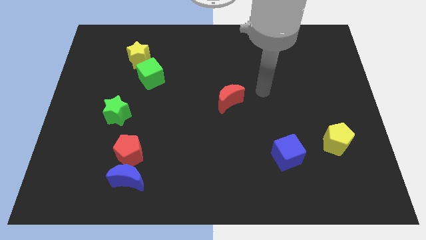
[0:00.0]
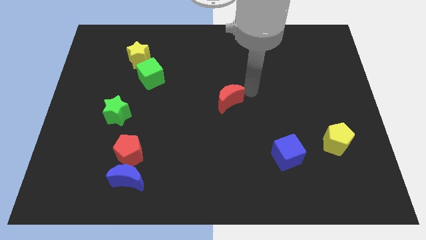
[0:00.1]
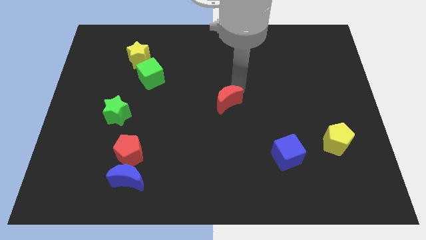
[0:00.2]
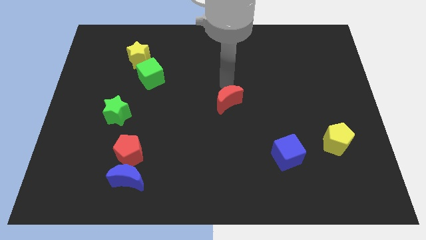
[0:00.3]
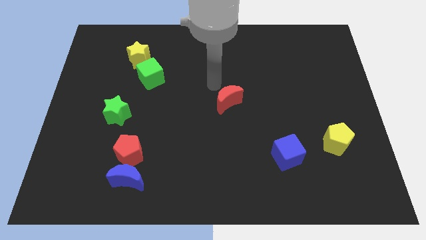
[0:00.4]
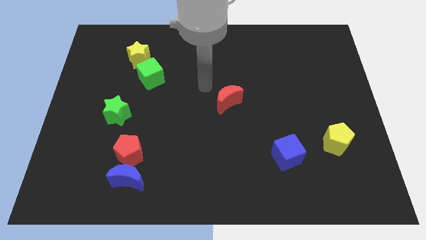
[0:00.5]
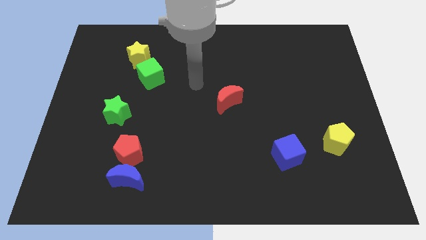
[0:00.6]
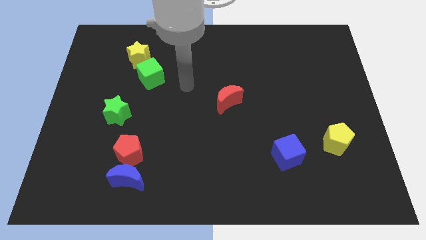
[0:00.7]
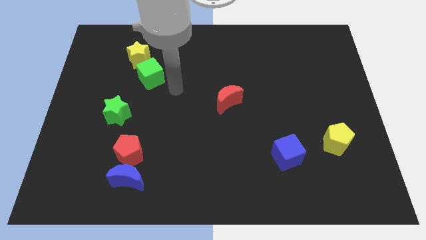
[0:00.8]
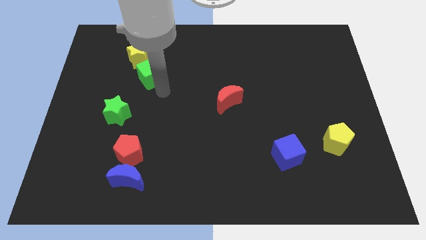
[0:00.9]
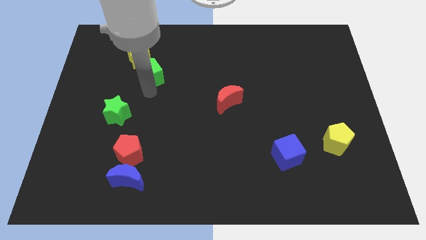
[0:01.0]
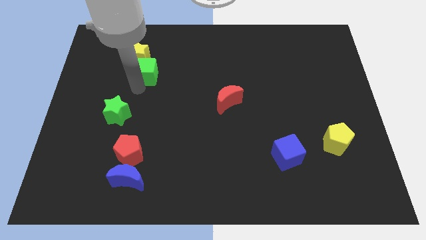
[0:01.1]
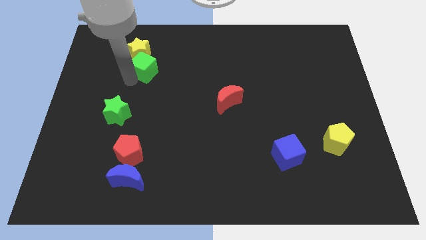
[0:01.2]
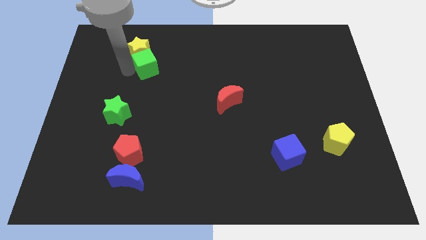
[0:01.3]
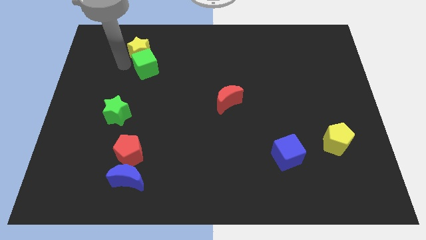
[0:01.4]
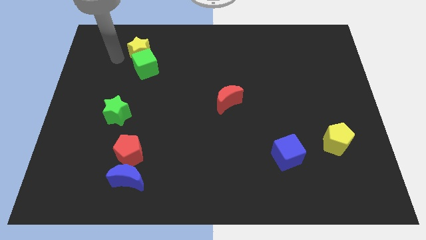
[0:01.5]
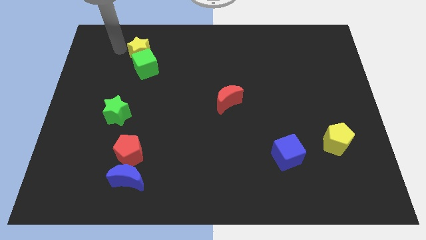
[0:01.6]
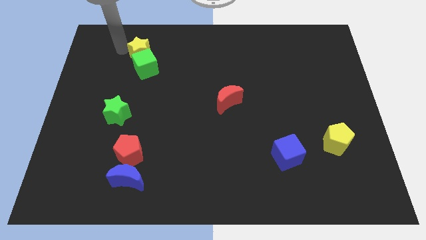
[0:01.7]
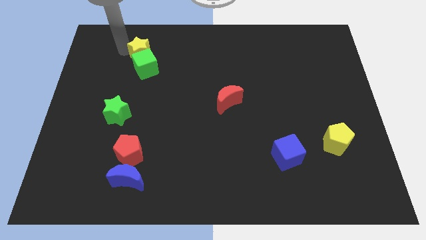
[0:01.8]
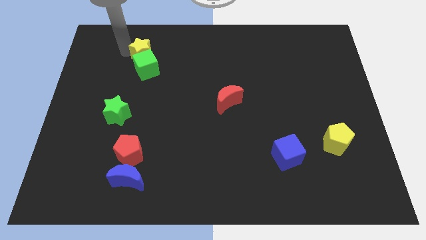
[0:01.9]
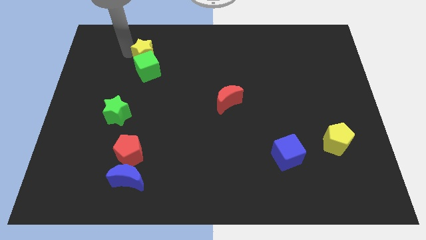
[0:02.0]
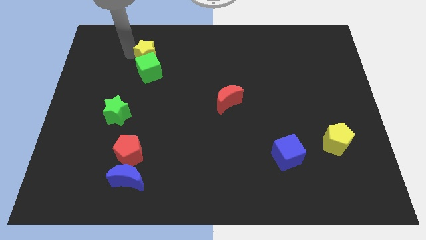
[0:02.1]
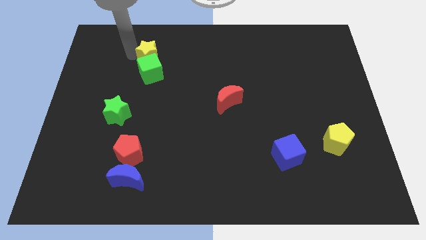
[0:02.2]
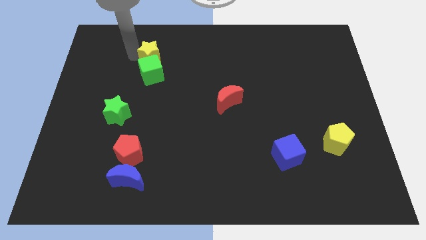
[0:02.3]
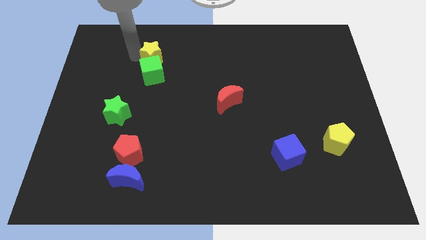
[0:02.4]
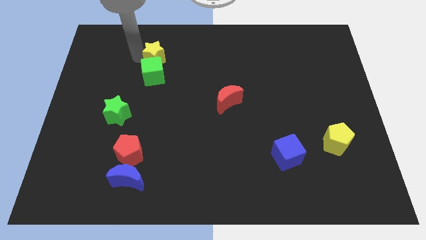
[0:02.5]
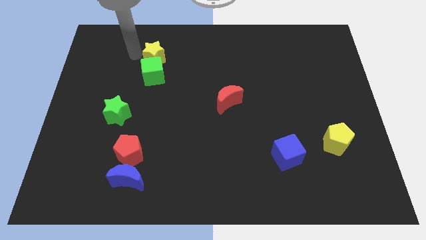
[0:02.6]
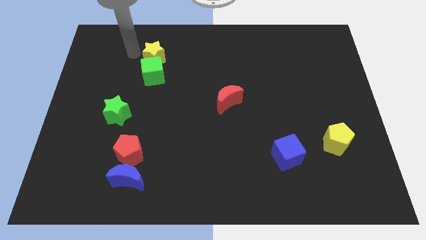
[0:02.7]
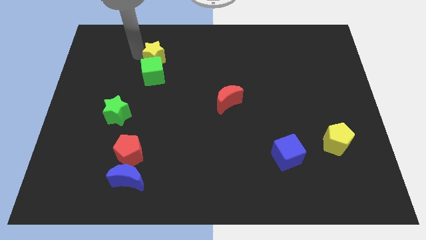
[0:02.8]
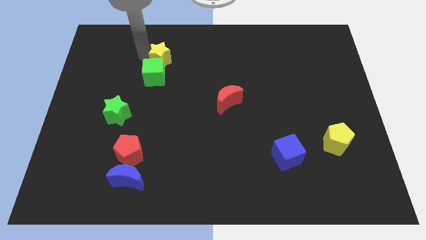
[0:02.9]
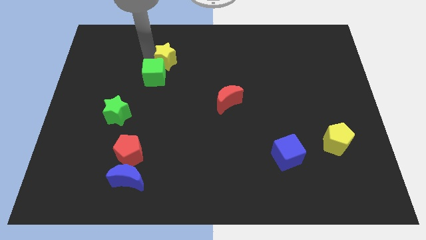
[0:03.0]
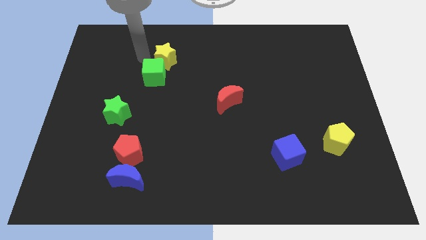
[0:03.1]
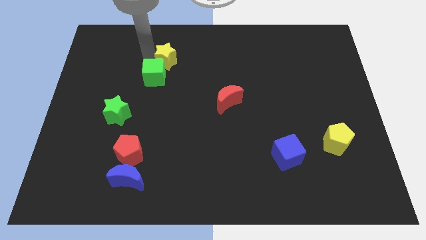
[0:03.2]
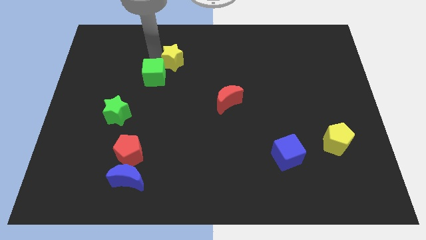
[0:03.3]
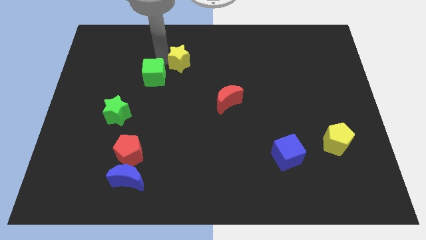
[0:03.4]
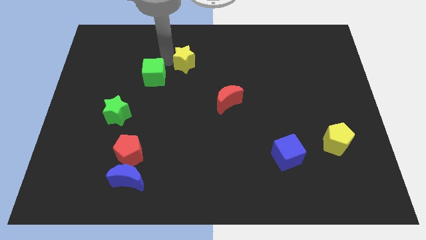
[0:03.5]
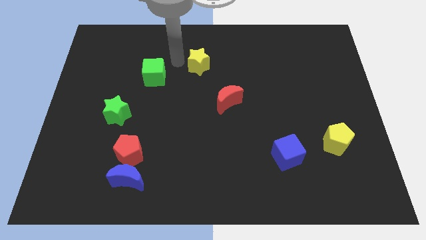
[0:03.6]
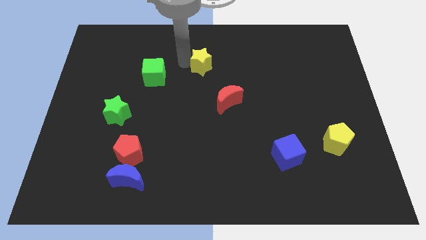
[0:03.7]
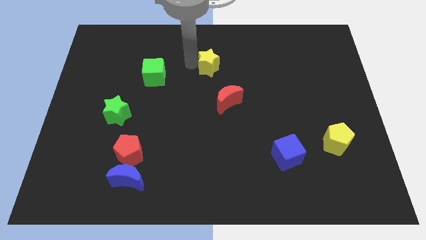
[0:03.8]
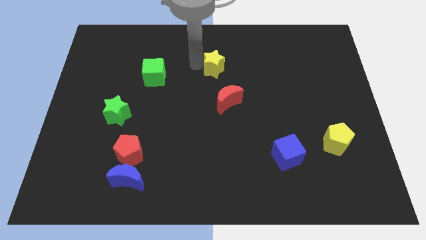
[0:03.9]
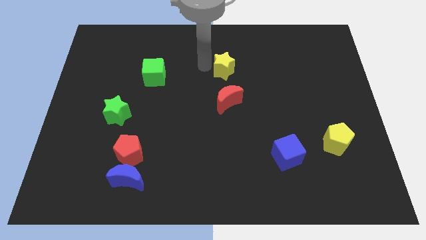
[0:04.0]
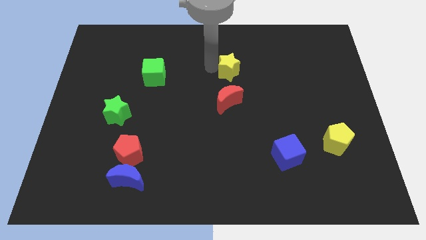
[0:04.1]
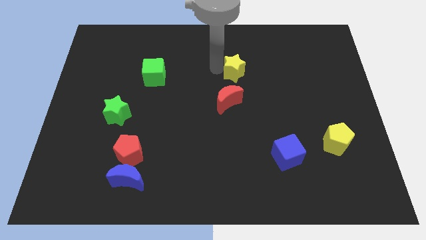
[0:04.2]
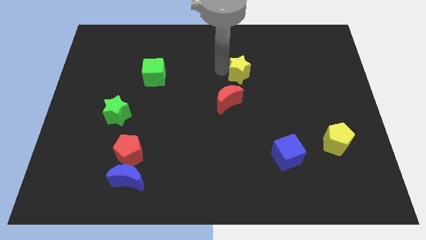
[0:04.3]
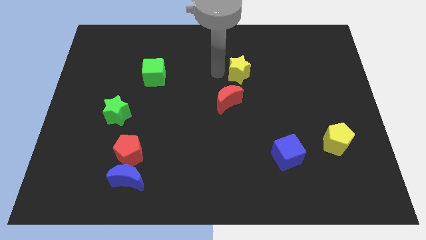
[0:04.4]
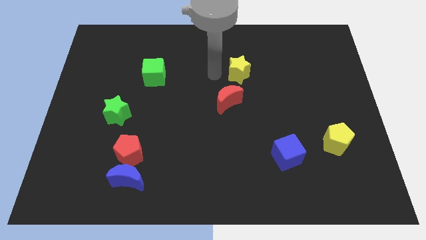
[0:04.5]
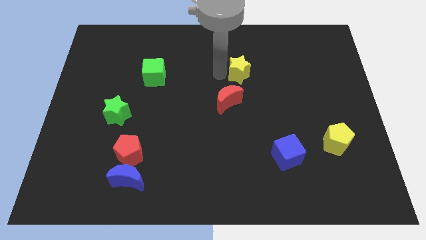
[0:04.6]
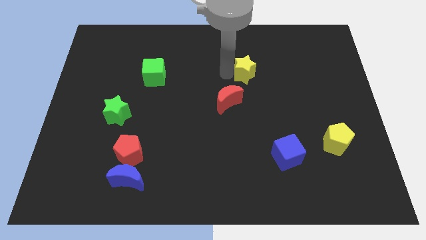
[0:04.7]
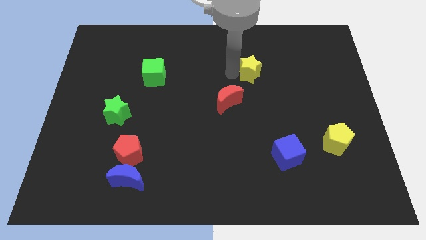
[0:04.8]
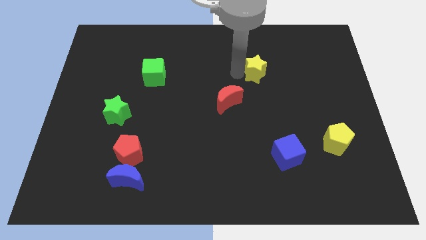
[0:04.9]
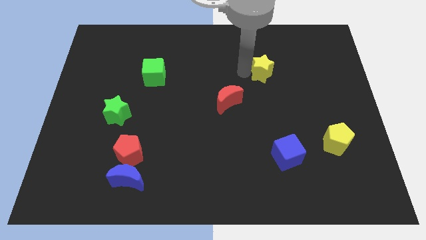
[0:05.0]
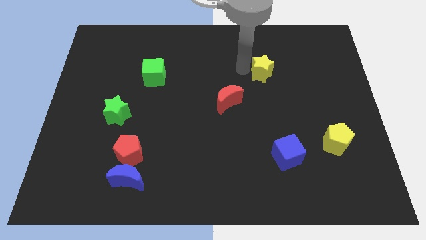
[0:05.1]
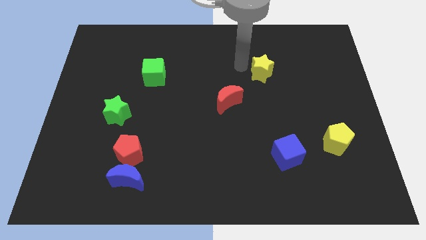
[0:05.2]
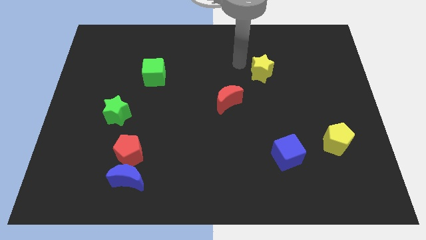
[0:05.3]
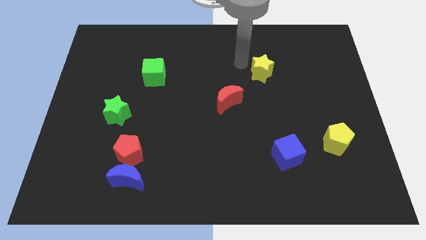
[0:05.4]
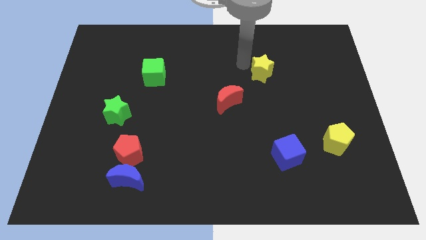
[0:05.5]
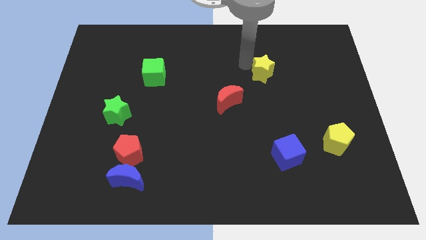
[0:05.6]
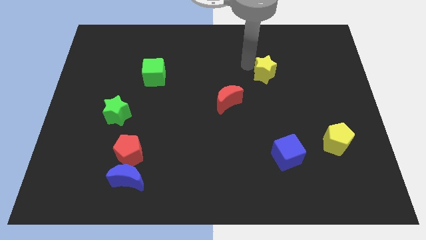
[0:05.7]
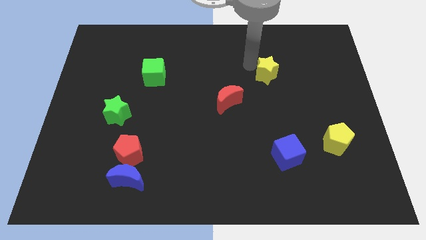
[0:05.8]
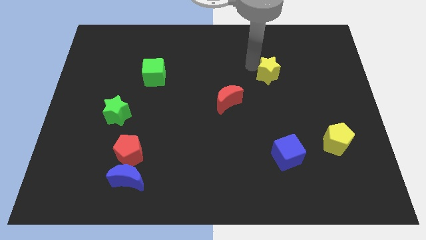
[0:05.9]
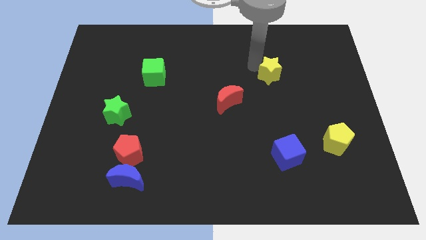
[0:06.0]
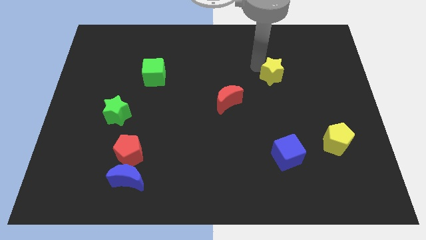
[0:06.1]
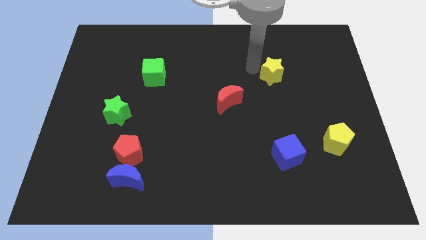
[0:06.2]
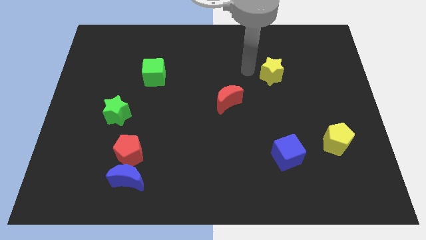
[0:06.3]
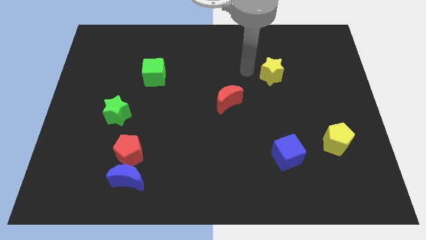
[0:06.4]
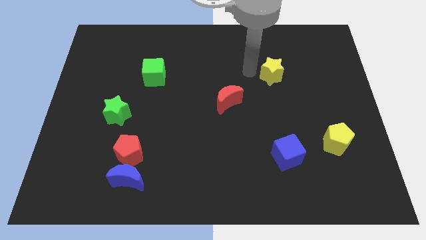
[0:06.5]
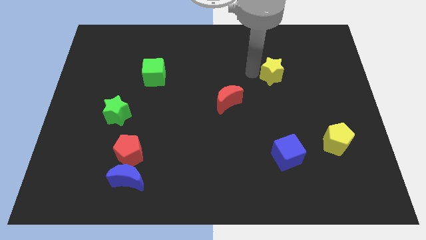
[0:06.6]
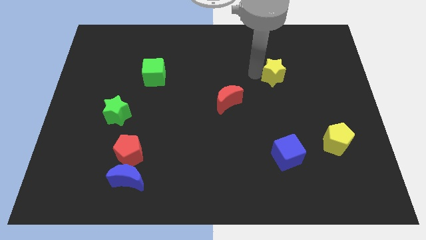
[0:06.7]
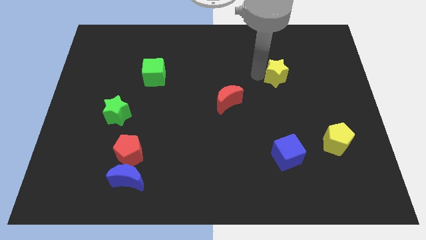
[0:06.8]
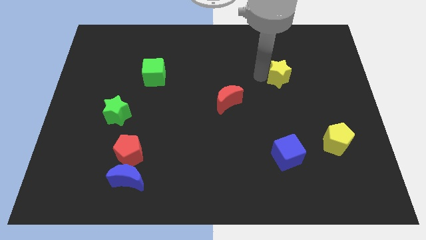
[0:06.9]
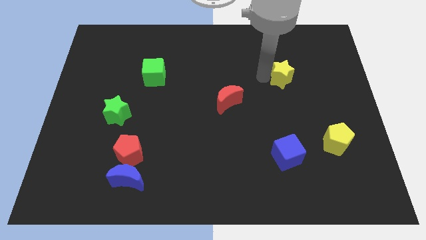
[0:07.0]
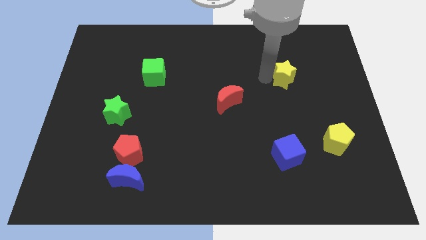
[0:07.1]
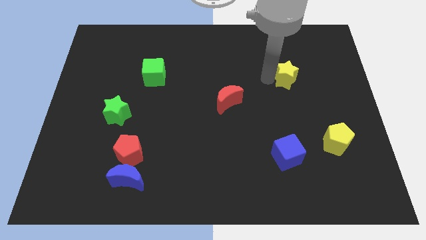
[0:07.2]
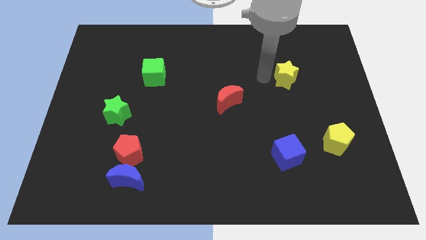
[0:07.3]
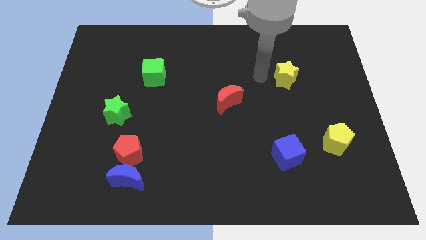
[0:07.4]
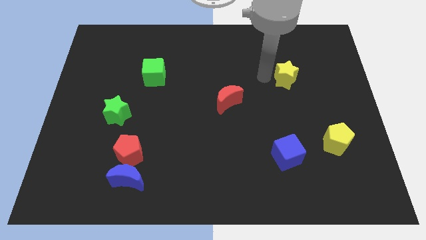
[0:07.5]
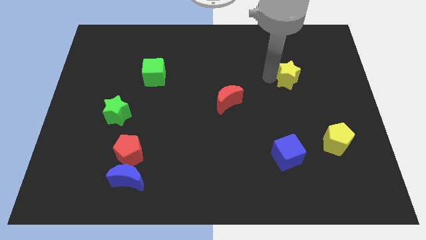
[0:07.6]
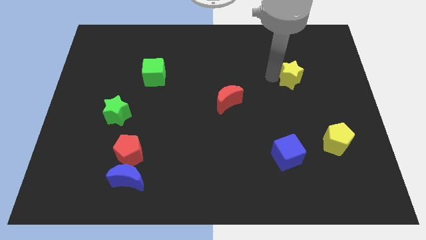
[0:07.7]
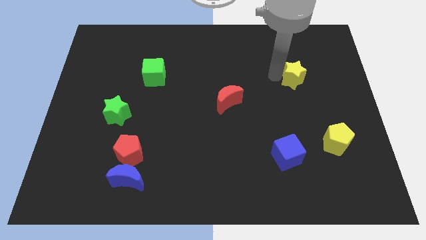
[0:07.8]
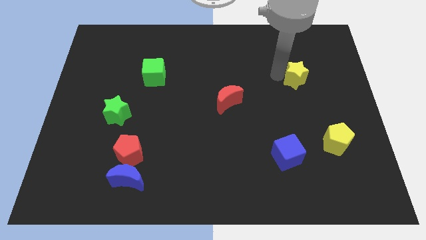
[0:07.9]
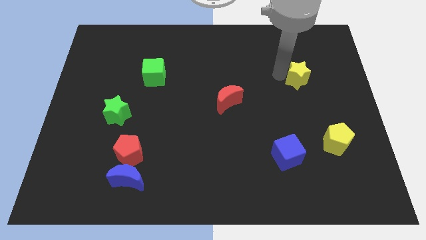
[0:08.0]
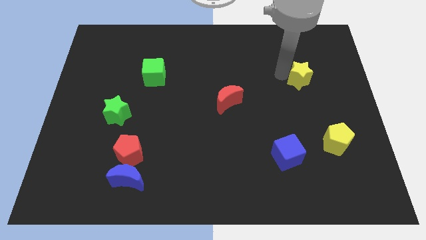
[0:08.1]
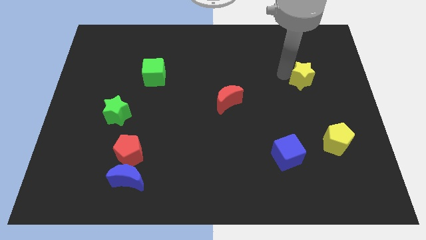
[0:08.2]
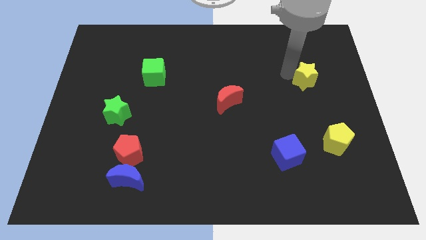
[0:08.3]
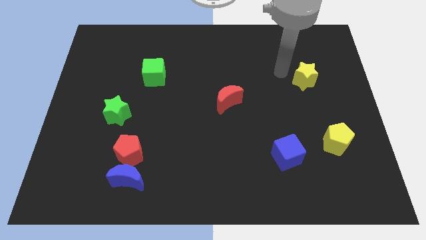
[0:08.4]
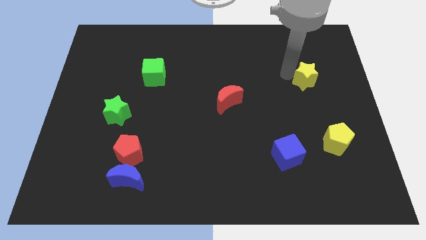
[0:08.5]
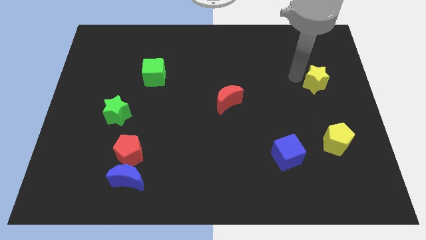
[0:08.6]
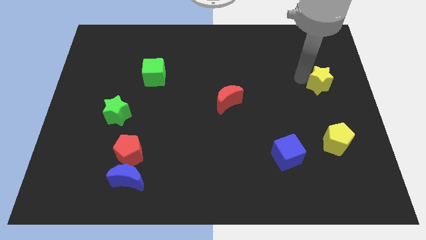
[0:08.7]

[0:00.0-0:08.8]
move the yellow star to the right side of the board
